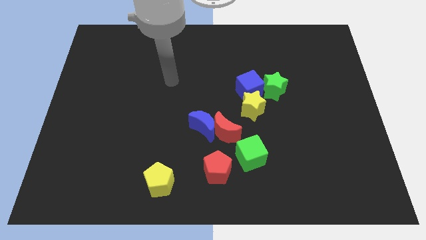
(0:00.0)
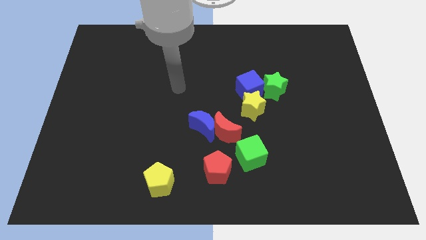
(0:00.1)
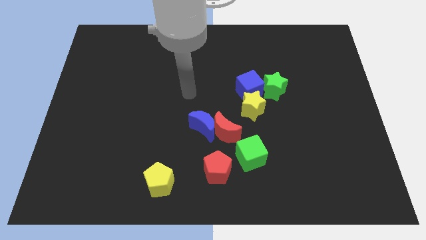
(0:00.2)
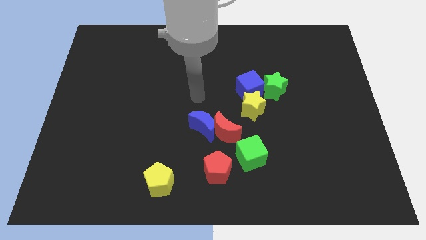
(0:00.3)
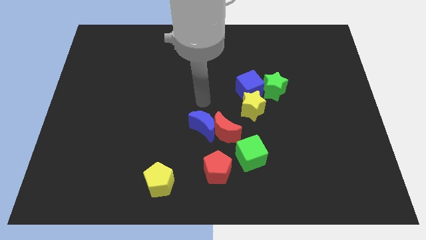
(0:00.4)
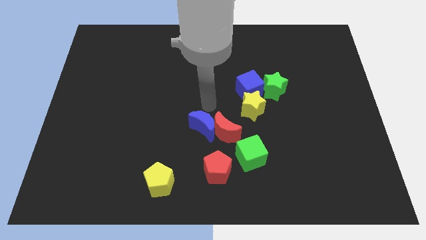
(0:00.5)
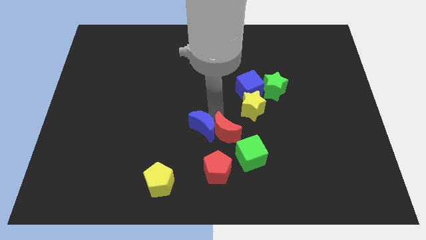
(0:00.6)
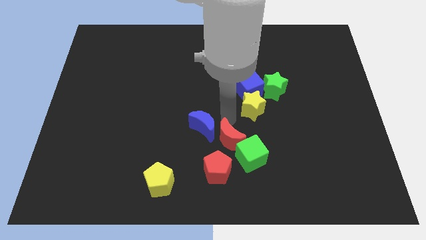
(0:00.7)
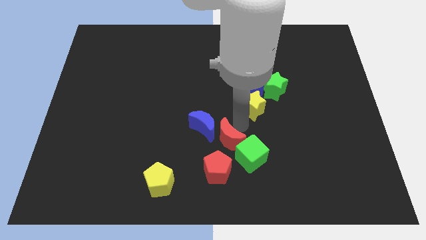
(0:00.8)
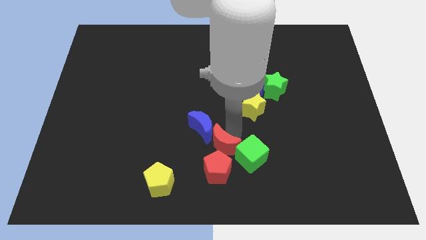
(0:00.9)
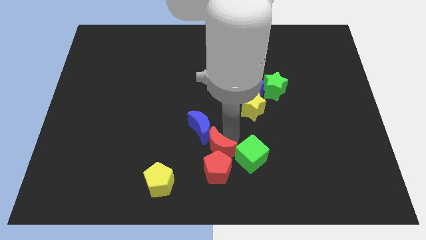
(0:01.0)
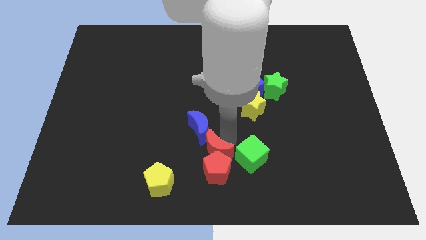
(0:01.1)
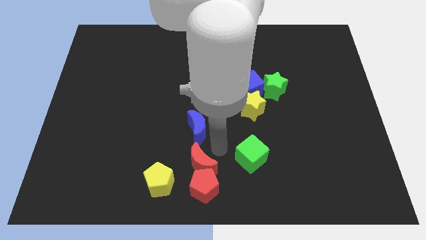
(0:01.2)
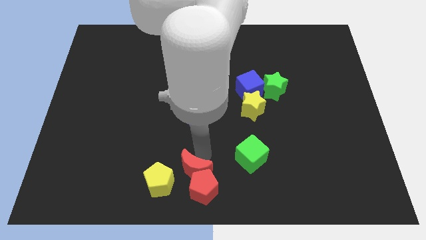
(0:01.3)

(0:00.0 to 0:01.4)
pull the blue moon apart from the red moon

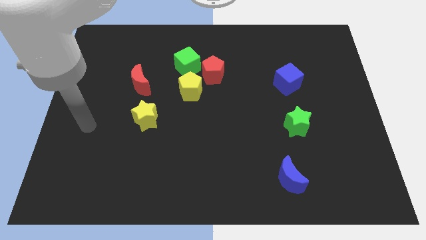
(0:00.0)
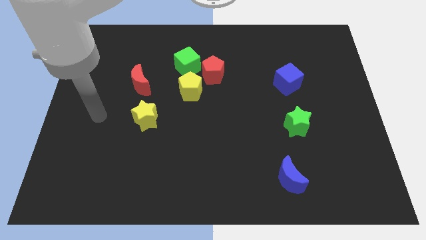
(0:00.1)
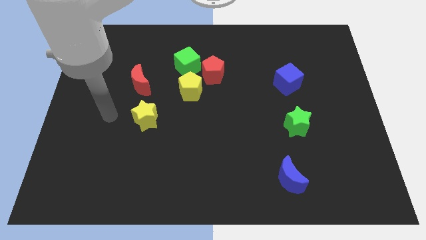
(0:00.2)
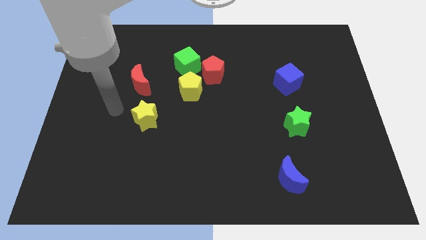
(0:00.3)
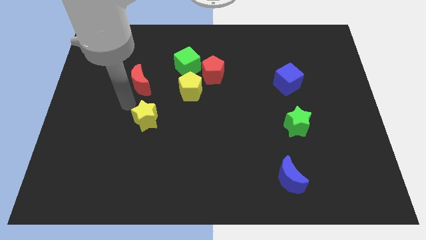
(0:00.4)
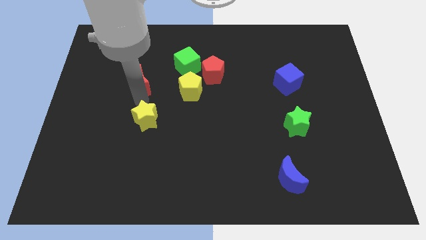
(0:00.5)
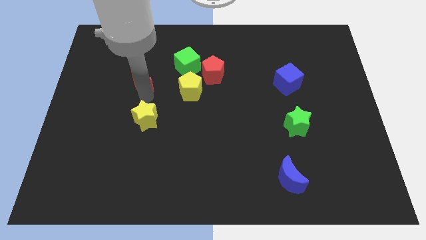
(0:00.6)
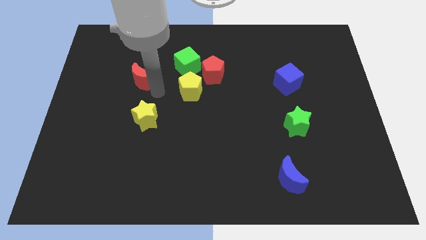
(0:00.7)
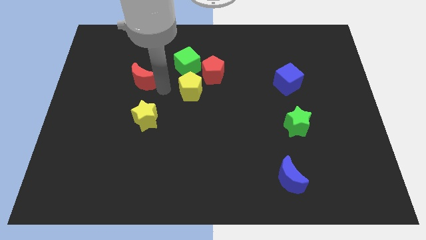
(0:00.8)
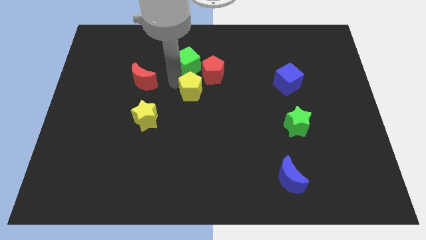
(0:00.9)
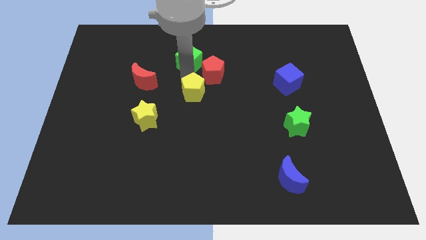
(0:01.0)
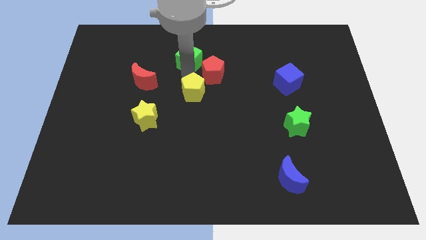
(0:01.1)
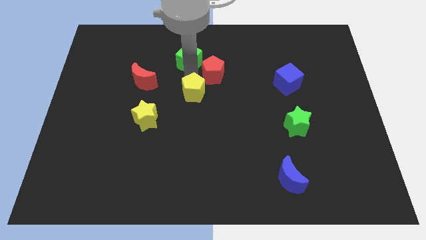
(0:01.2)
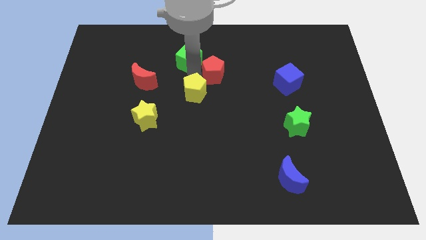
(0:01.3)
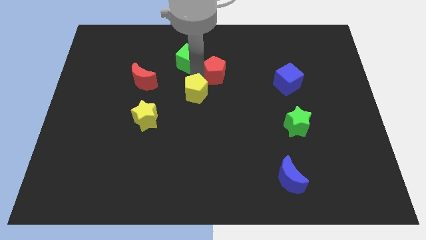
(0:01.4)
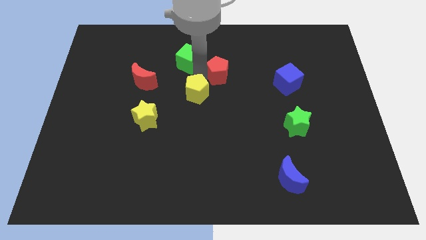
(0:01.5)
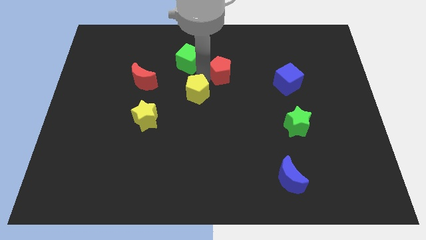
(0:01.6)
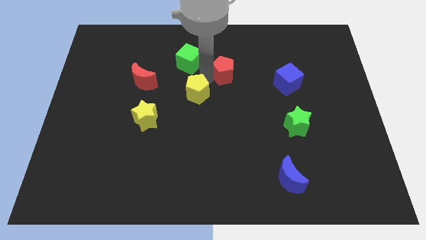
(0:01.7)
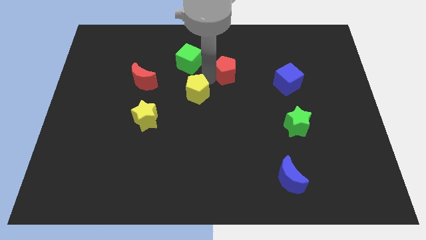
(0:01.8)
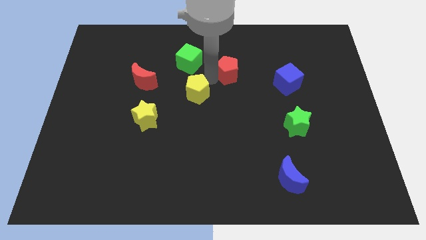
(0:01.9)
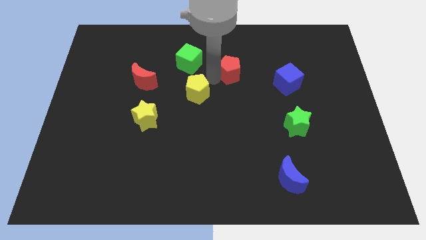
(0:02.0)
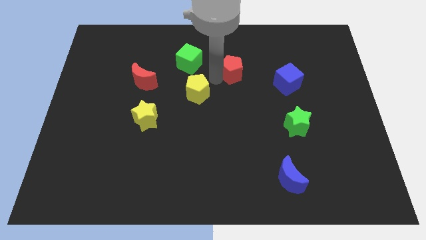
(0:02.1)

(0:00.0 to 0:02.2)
separate the red pentagon from the green cube and yellow pentagon

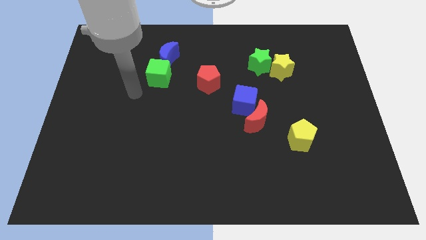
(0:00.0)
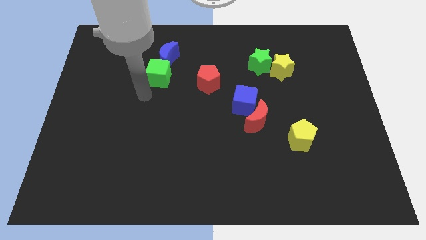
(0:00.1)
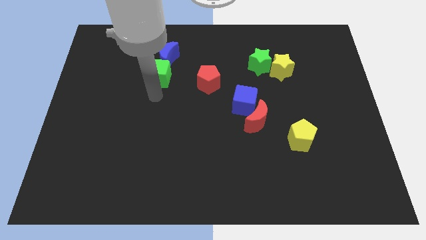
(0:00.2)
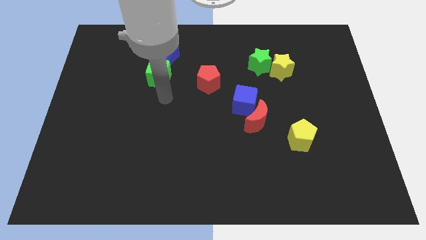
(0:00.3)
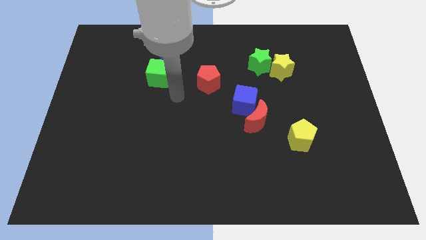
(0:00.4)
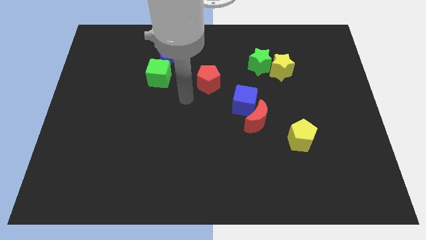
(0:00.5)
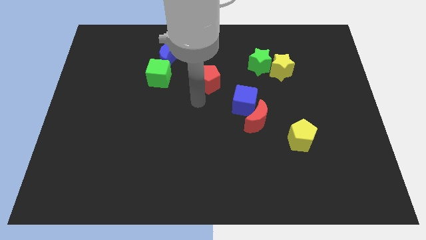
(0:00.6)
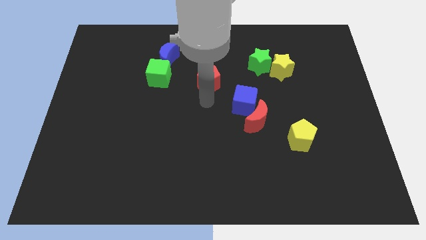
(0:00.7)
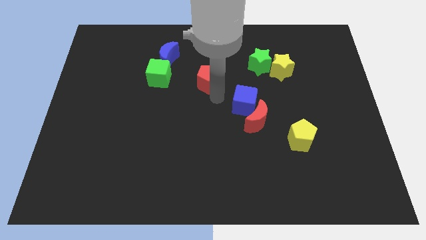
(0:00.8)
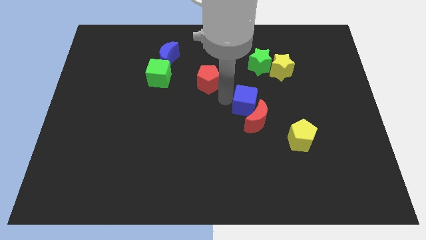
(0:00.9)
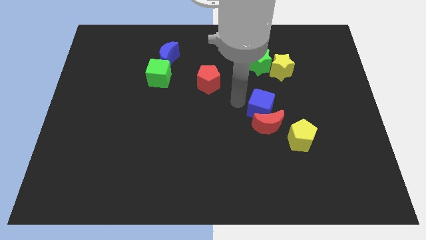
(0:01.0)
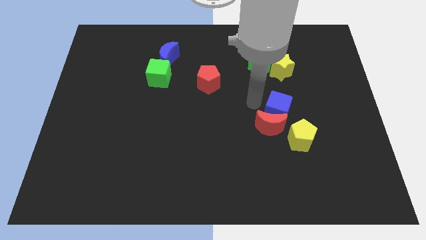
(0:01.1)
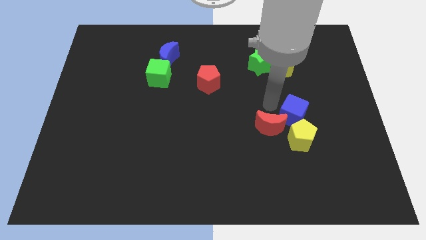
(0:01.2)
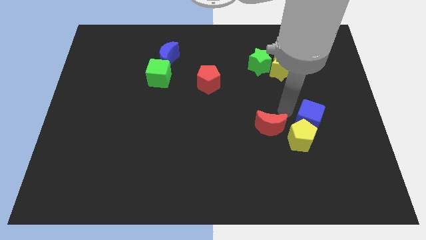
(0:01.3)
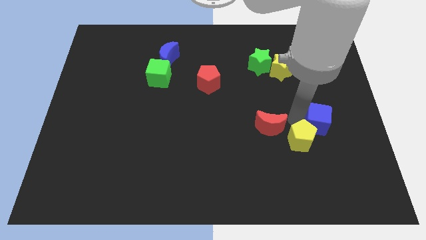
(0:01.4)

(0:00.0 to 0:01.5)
pull the red moon apart from the blue cube

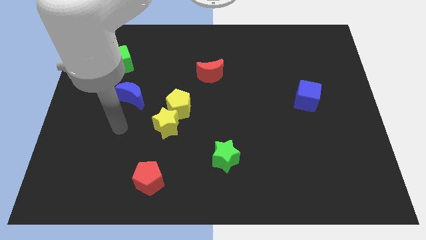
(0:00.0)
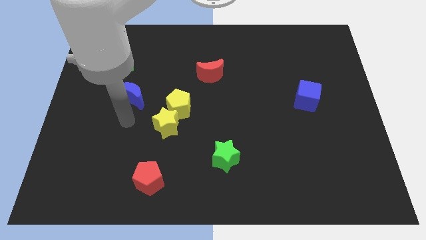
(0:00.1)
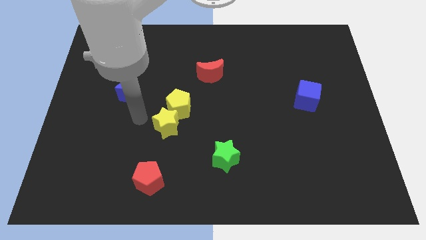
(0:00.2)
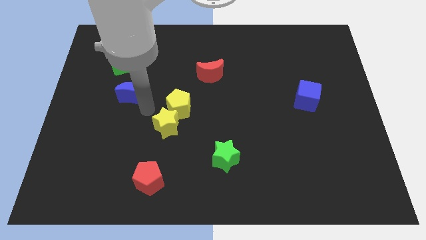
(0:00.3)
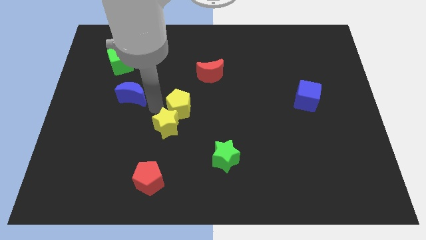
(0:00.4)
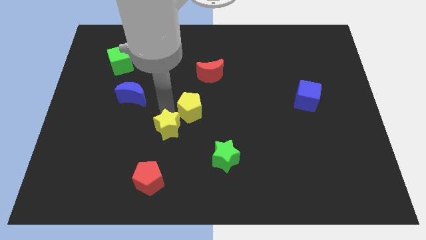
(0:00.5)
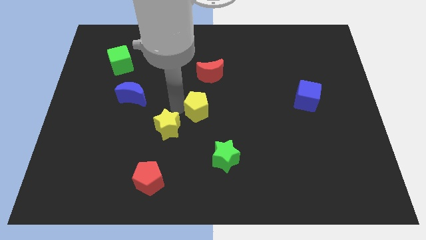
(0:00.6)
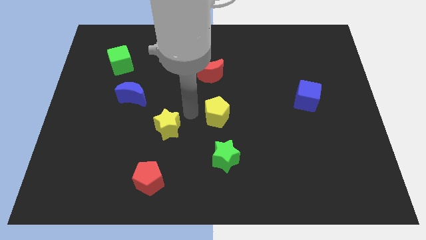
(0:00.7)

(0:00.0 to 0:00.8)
separate the yellow star from the yellow pentagon

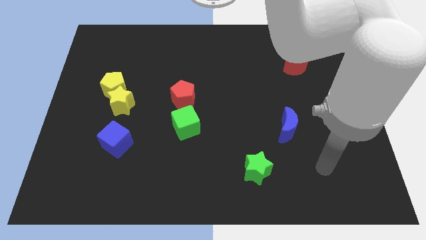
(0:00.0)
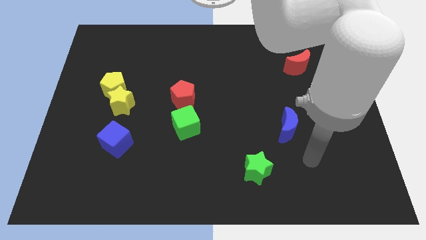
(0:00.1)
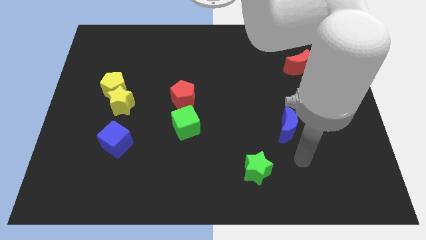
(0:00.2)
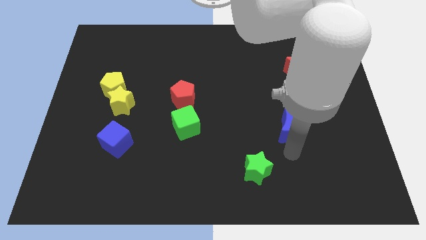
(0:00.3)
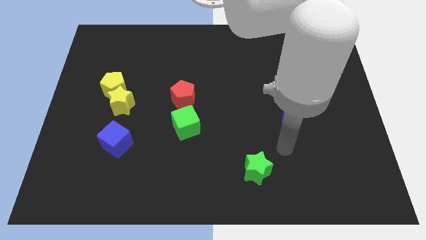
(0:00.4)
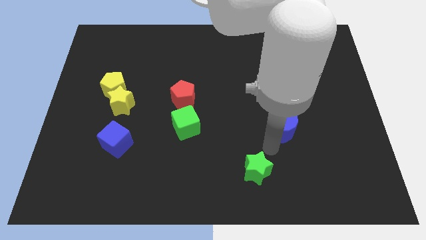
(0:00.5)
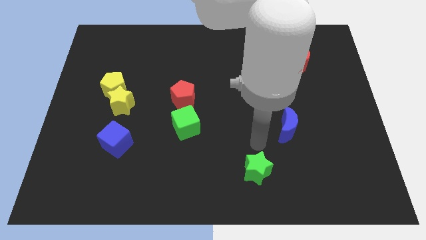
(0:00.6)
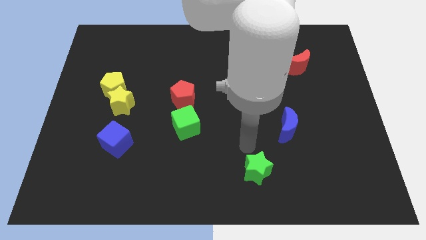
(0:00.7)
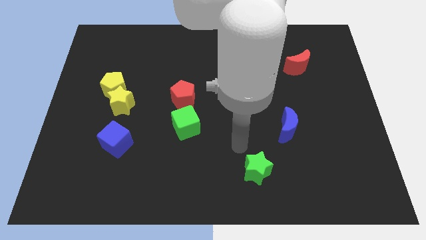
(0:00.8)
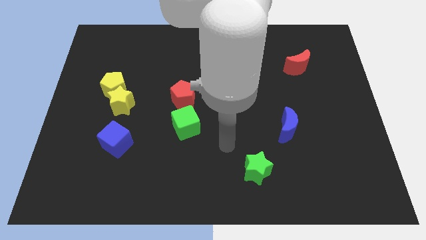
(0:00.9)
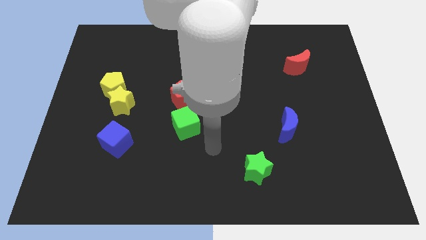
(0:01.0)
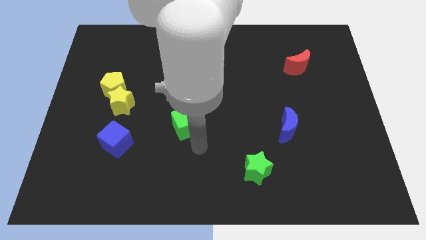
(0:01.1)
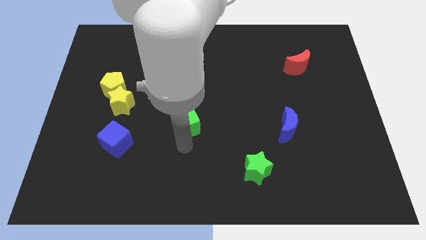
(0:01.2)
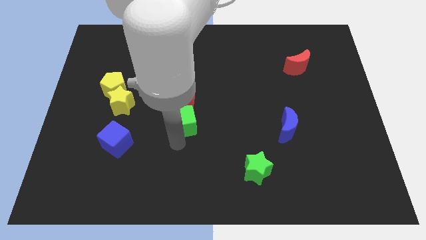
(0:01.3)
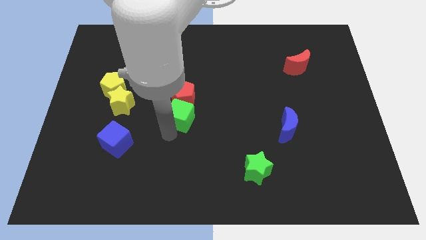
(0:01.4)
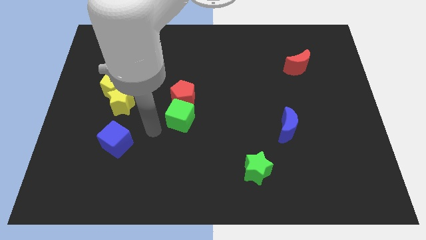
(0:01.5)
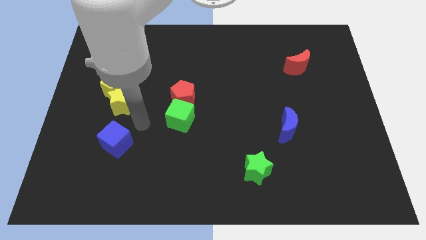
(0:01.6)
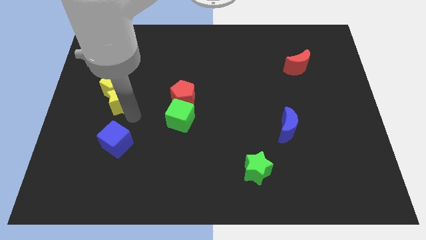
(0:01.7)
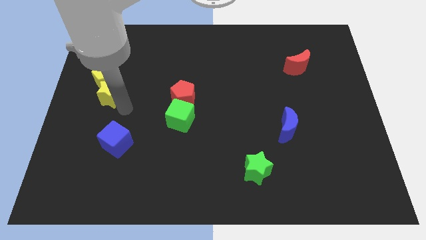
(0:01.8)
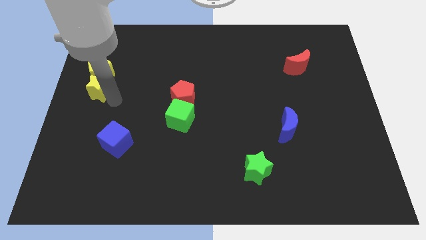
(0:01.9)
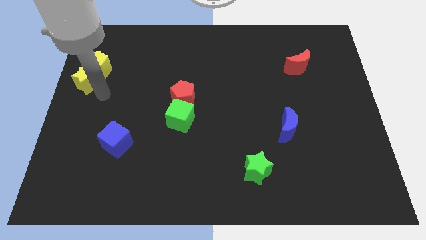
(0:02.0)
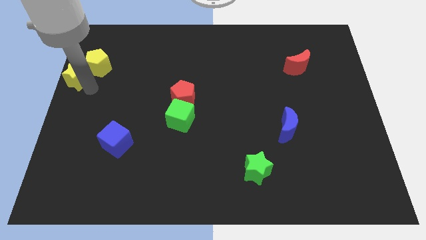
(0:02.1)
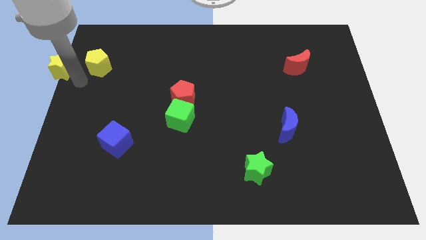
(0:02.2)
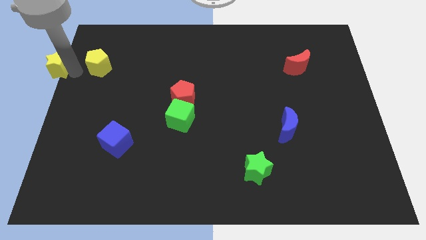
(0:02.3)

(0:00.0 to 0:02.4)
separate the yellow pentagon from the yellow star

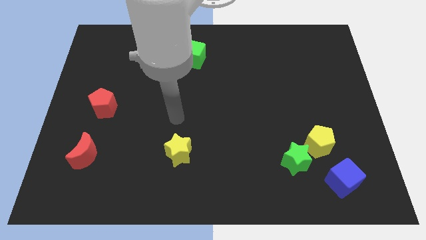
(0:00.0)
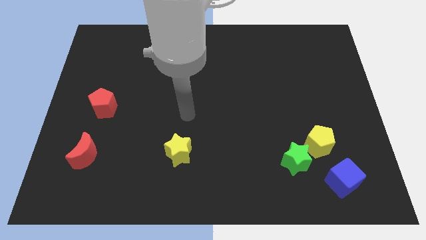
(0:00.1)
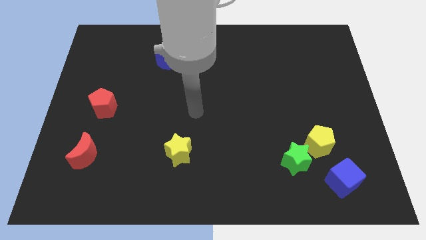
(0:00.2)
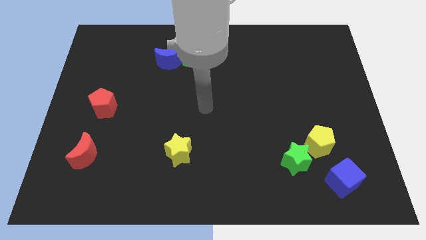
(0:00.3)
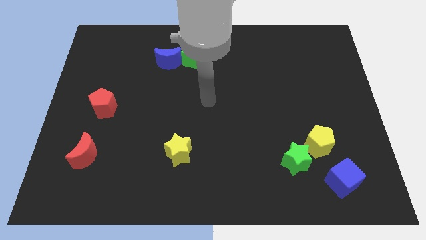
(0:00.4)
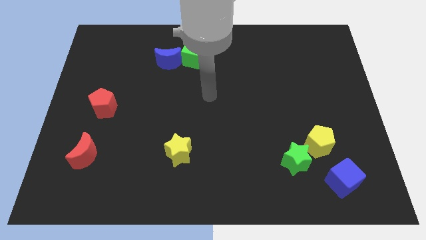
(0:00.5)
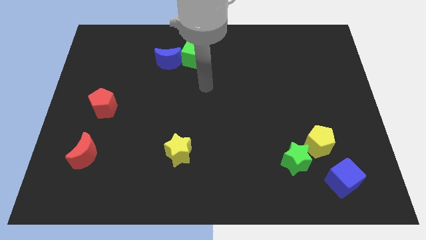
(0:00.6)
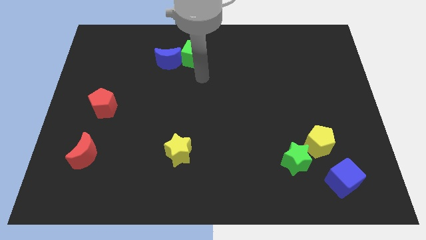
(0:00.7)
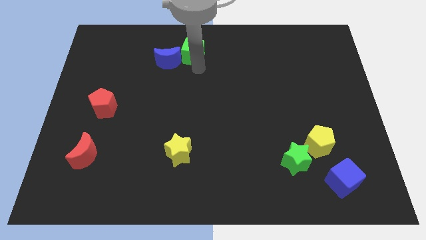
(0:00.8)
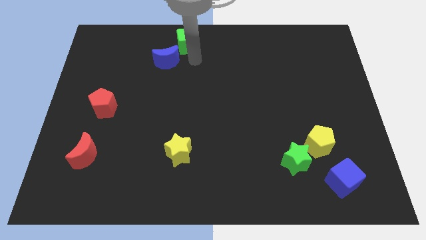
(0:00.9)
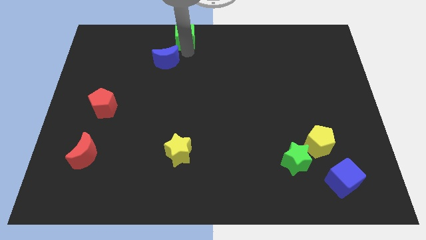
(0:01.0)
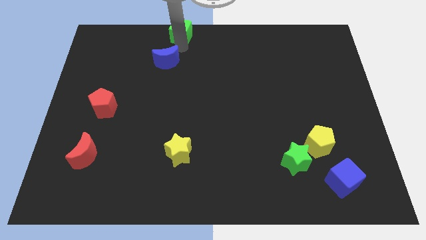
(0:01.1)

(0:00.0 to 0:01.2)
separate the blue moon from the green cube
